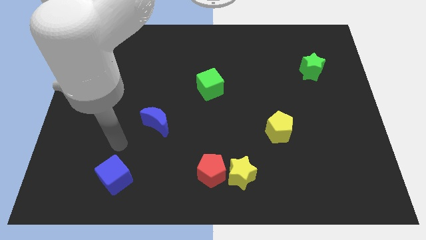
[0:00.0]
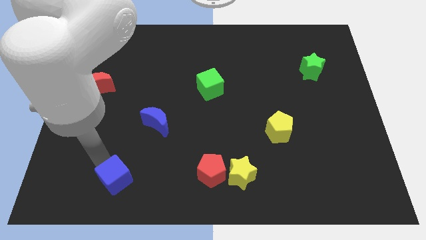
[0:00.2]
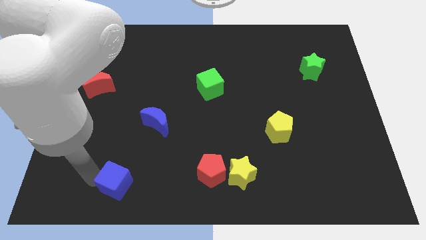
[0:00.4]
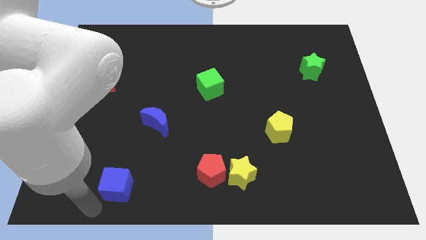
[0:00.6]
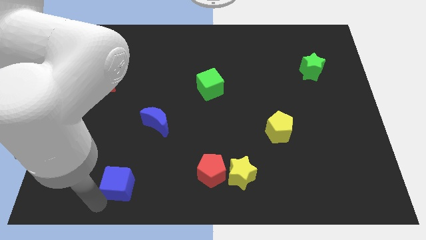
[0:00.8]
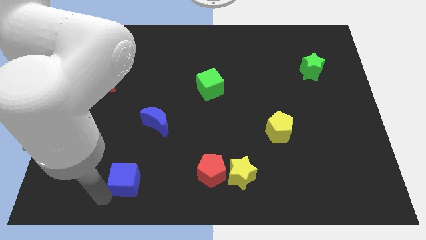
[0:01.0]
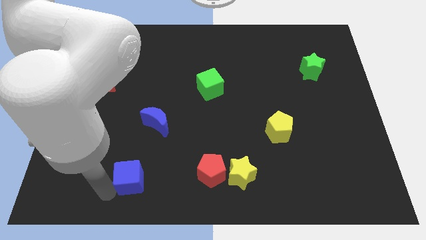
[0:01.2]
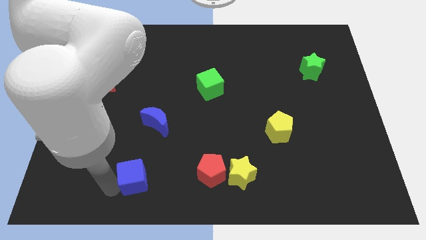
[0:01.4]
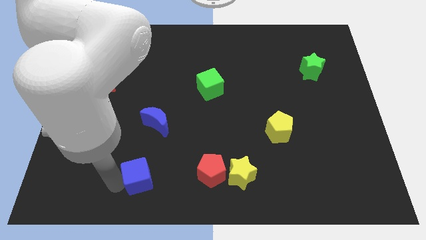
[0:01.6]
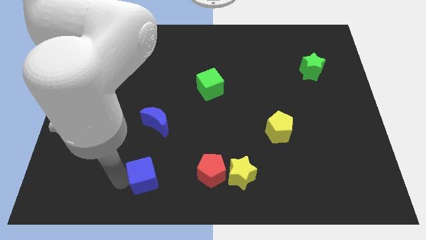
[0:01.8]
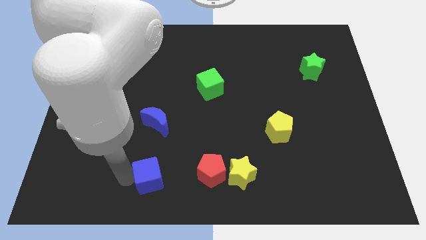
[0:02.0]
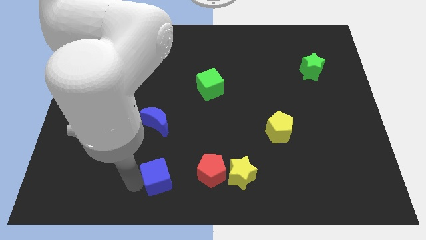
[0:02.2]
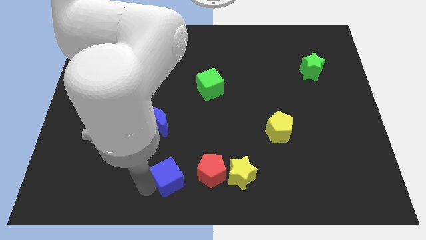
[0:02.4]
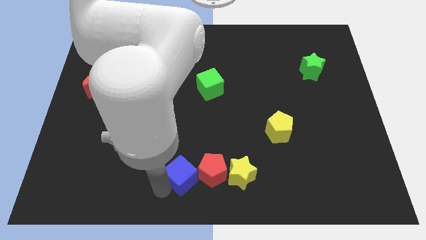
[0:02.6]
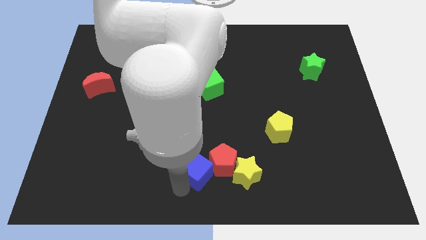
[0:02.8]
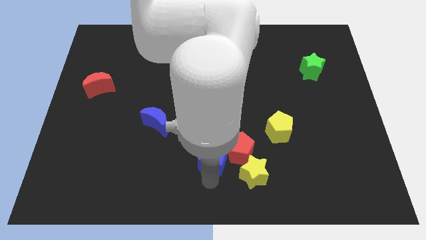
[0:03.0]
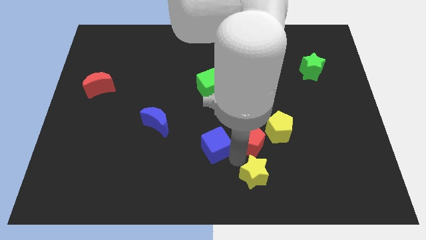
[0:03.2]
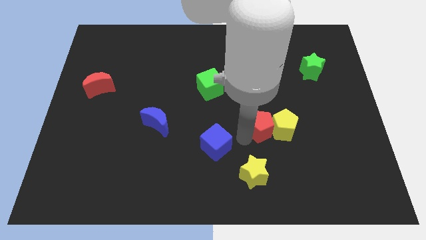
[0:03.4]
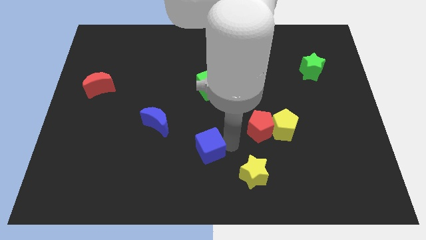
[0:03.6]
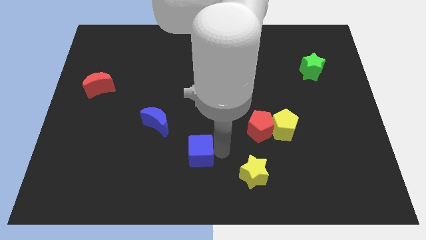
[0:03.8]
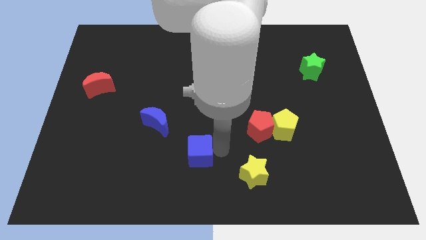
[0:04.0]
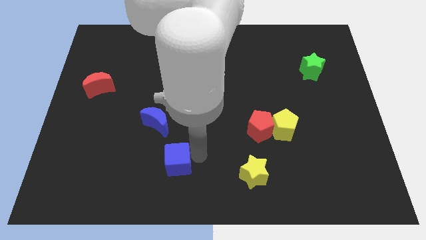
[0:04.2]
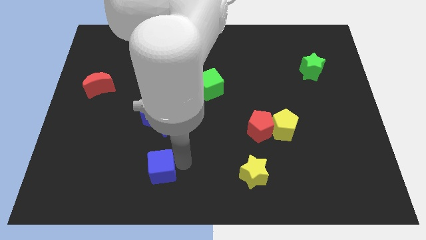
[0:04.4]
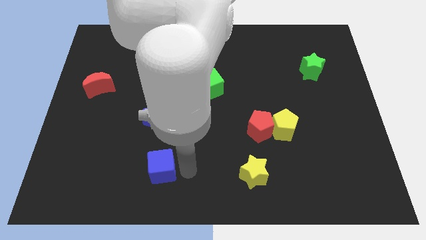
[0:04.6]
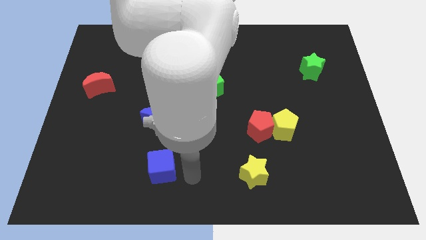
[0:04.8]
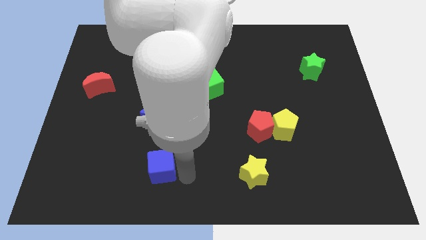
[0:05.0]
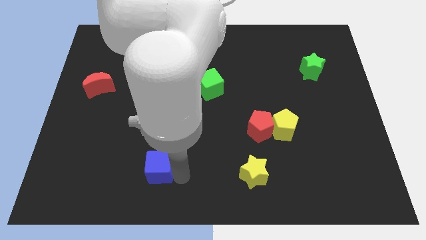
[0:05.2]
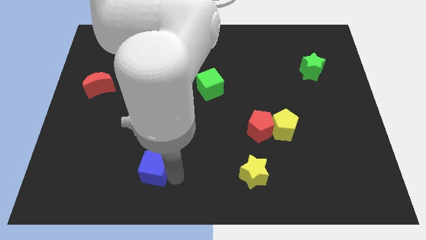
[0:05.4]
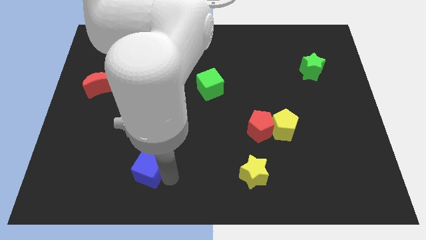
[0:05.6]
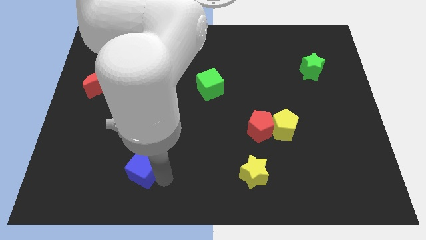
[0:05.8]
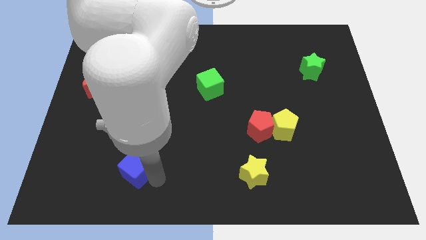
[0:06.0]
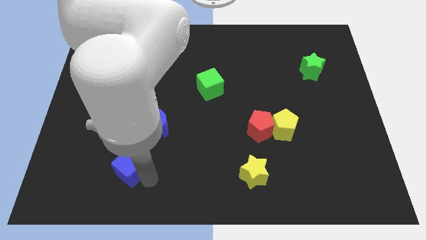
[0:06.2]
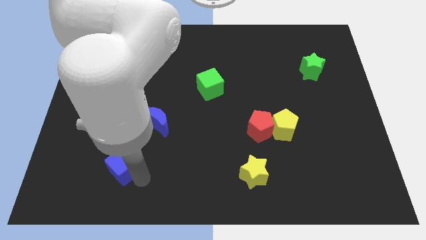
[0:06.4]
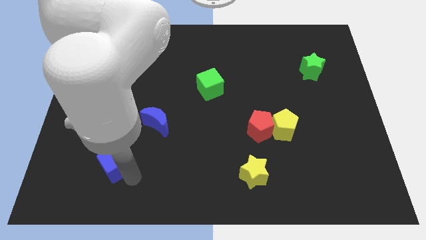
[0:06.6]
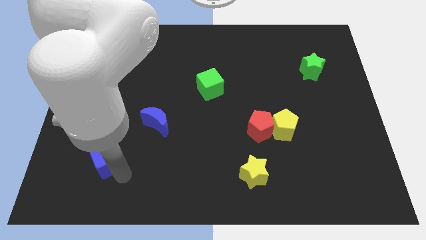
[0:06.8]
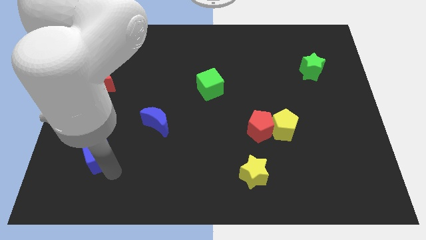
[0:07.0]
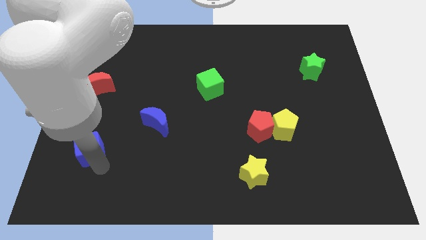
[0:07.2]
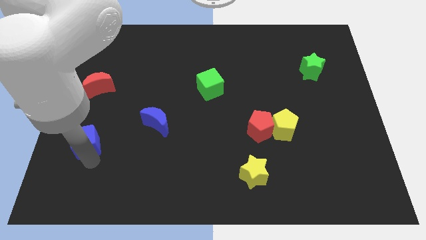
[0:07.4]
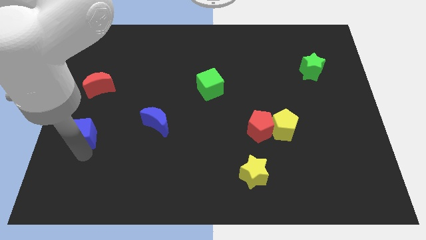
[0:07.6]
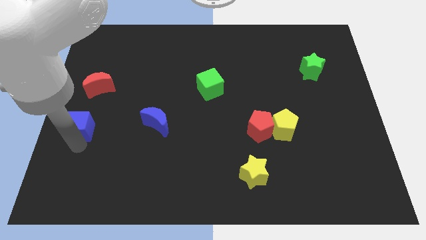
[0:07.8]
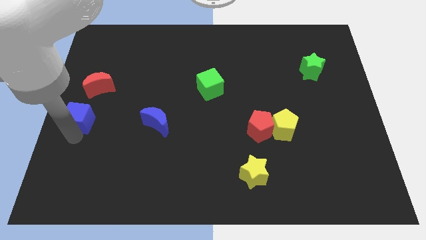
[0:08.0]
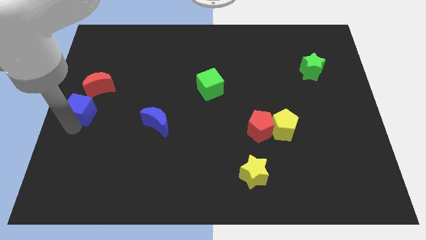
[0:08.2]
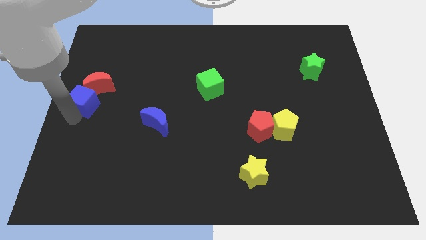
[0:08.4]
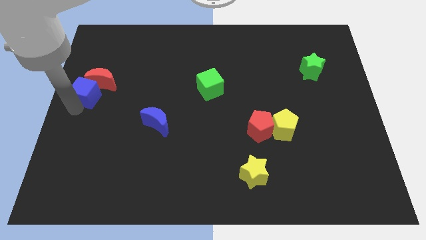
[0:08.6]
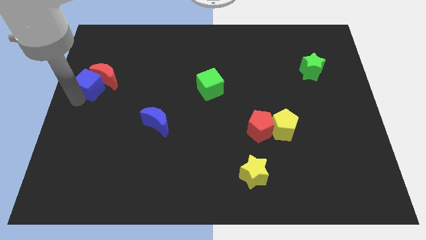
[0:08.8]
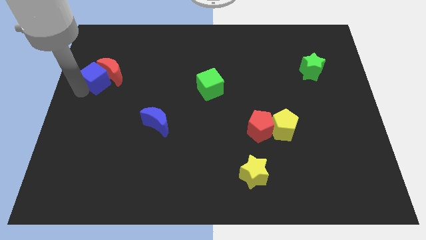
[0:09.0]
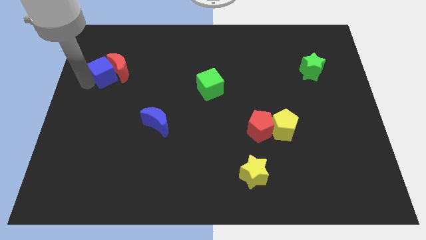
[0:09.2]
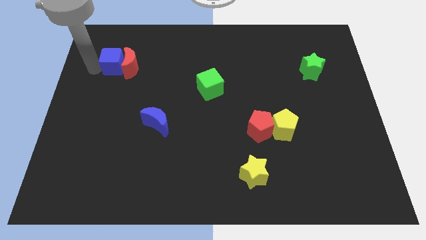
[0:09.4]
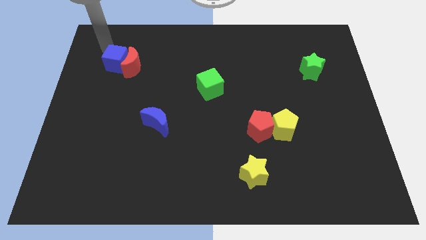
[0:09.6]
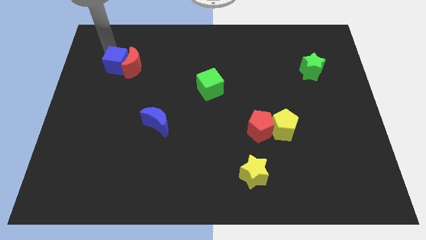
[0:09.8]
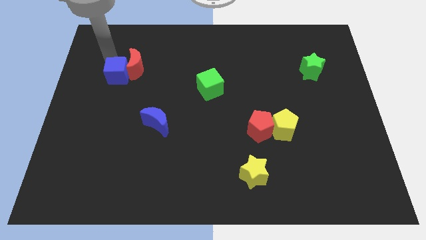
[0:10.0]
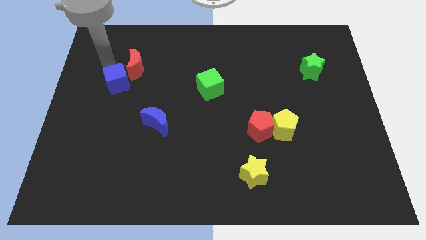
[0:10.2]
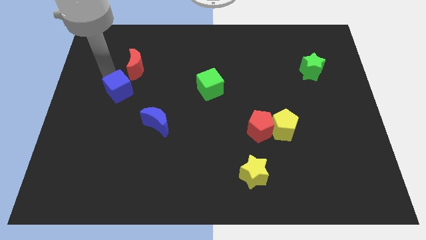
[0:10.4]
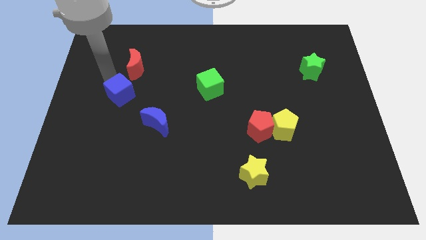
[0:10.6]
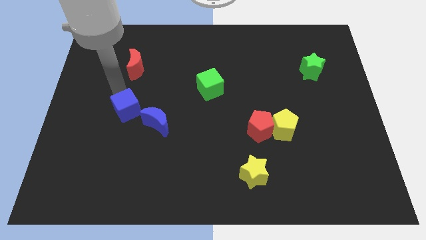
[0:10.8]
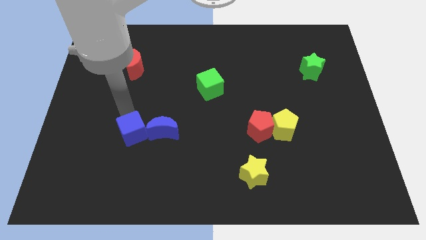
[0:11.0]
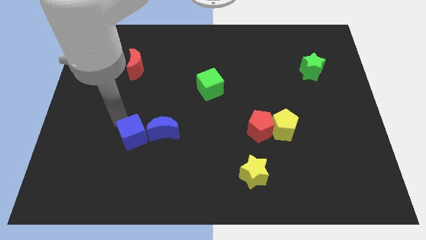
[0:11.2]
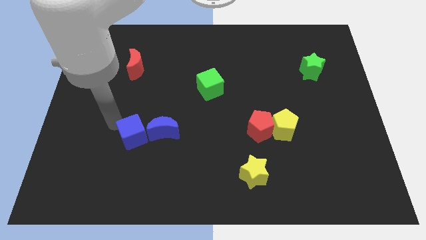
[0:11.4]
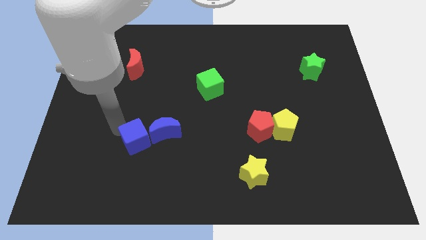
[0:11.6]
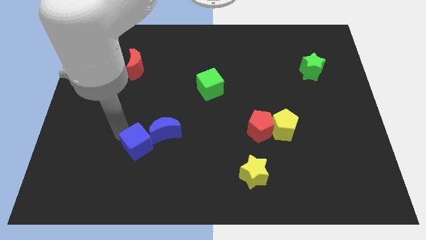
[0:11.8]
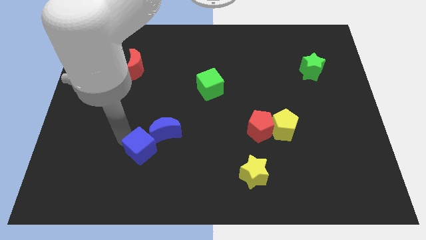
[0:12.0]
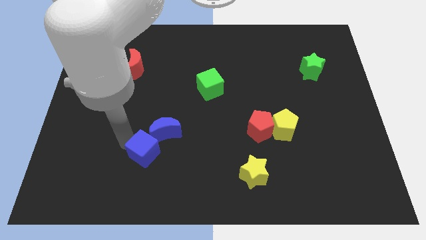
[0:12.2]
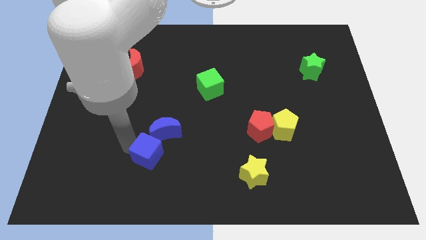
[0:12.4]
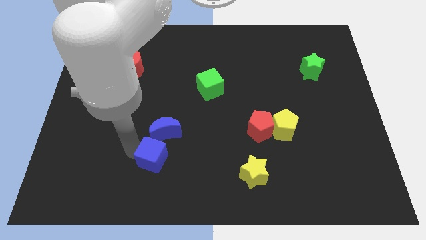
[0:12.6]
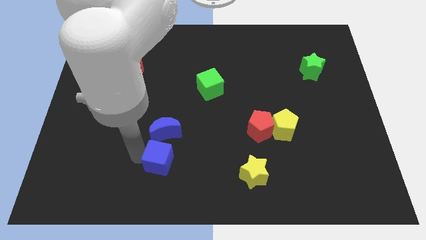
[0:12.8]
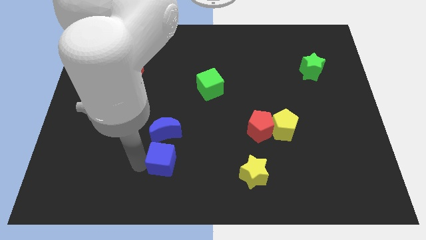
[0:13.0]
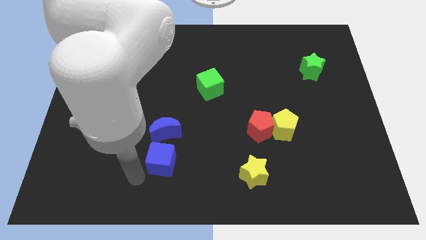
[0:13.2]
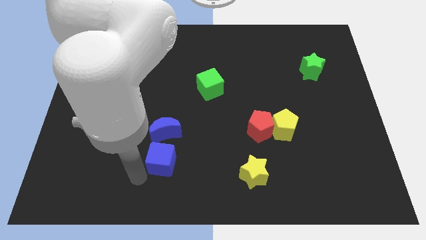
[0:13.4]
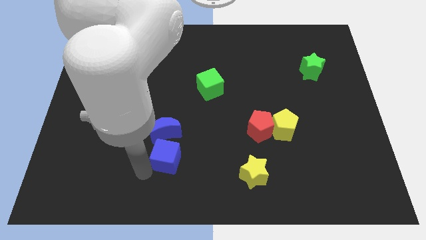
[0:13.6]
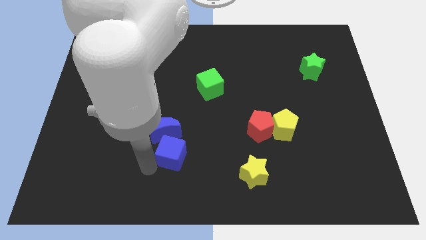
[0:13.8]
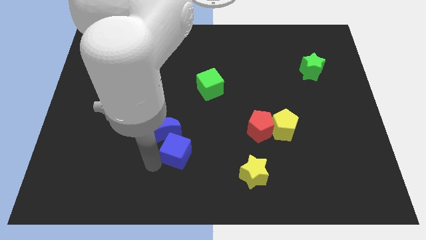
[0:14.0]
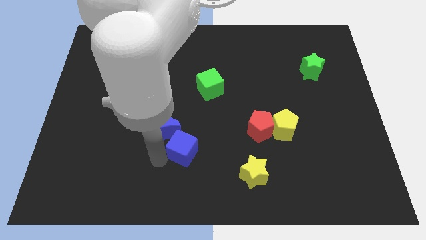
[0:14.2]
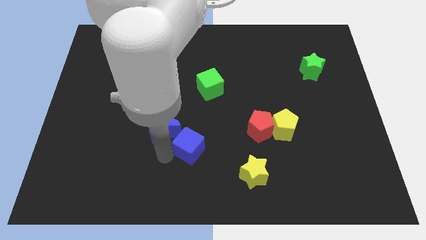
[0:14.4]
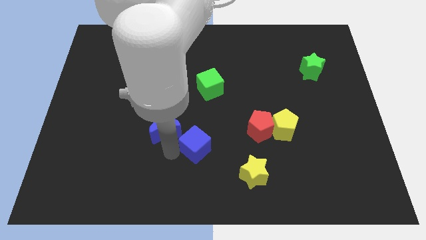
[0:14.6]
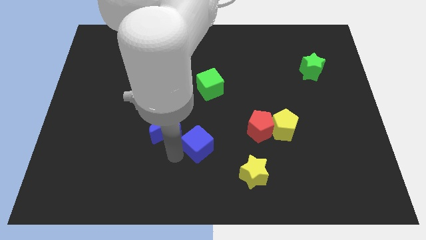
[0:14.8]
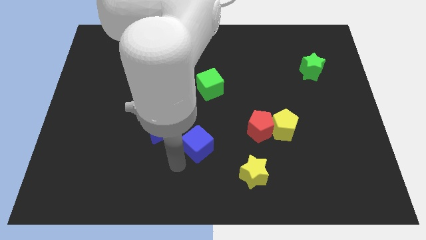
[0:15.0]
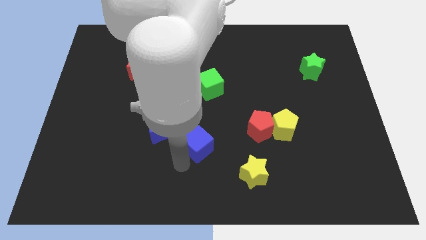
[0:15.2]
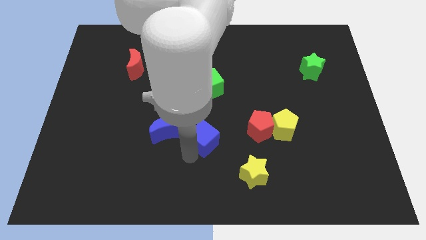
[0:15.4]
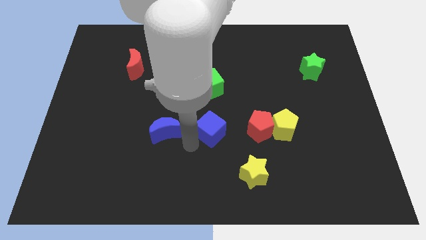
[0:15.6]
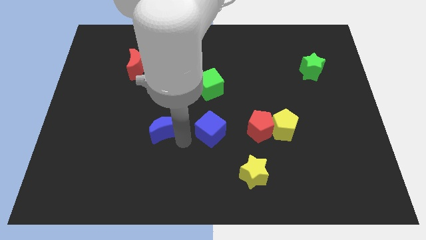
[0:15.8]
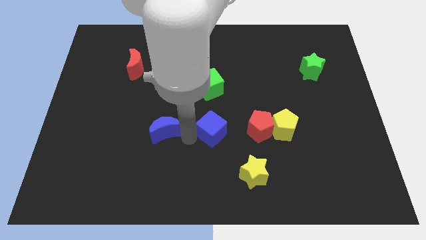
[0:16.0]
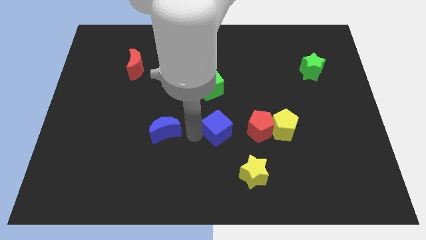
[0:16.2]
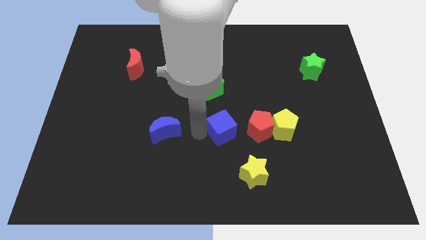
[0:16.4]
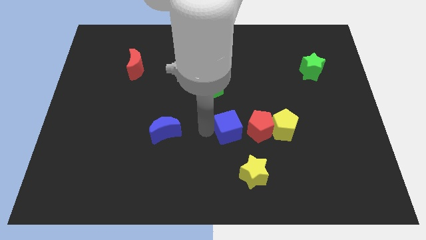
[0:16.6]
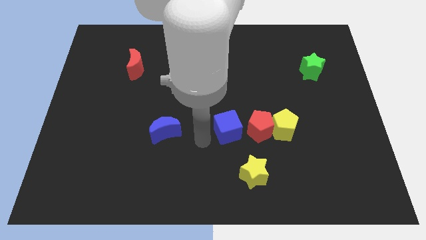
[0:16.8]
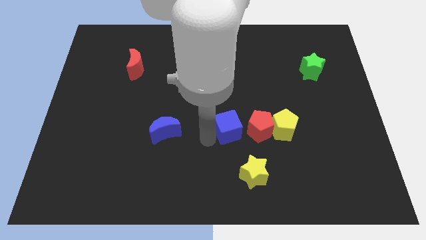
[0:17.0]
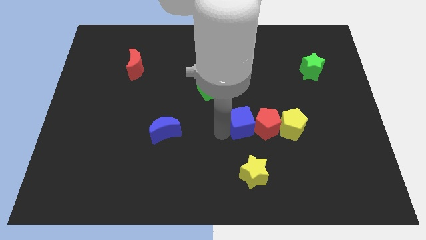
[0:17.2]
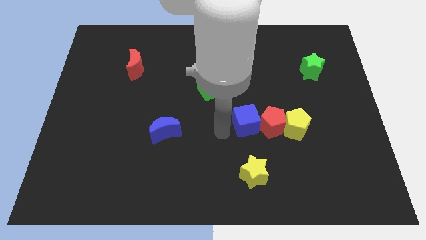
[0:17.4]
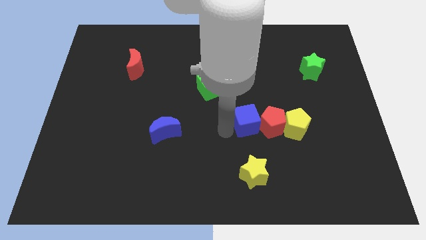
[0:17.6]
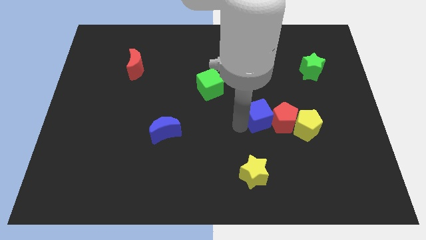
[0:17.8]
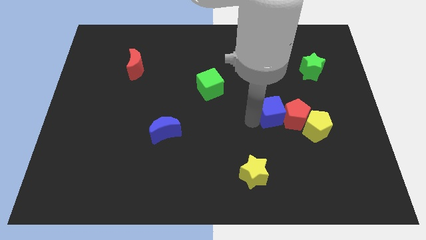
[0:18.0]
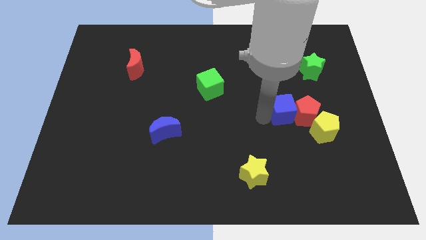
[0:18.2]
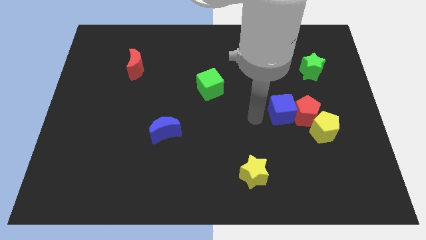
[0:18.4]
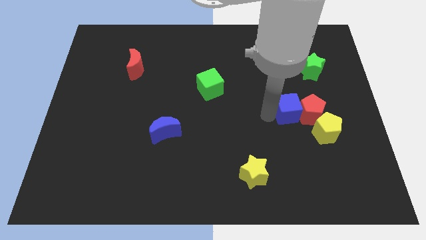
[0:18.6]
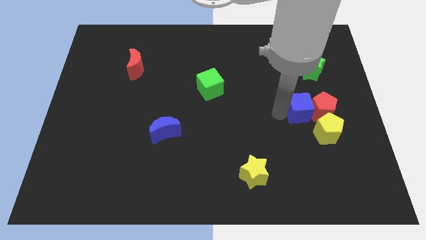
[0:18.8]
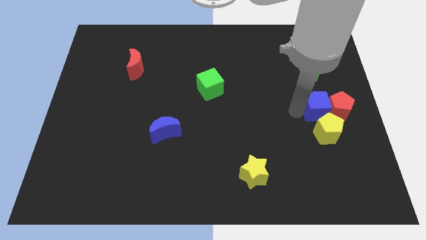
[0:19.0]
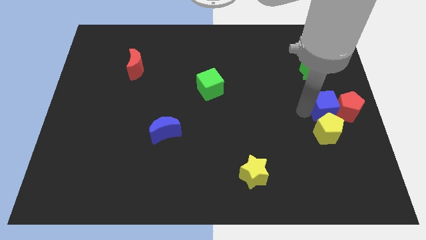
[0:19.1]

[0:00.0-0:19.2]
move the blue cube to the center right
